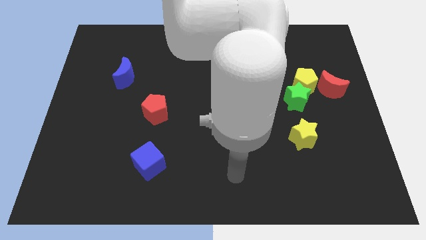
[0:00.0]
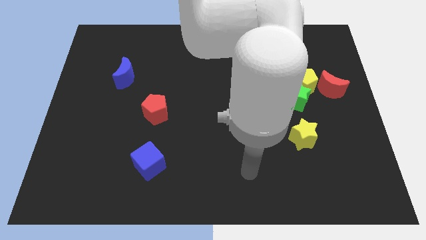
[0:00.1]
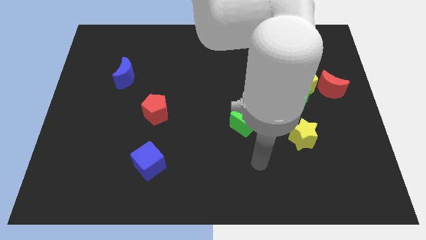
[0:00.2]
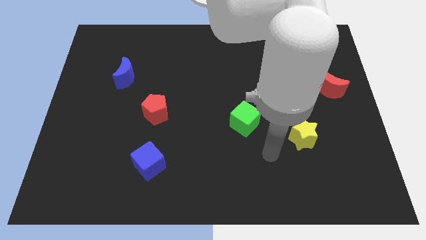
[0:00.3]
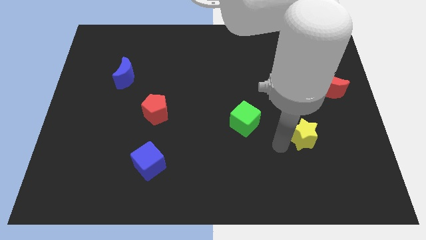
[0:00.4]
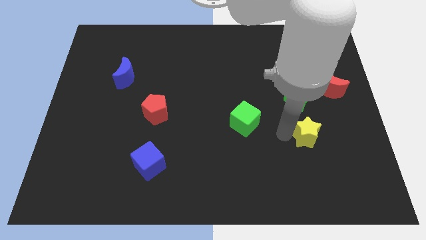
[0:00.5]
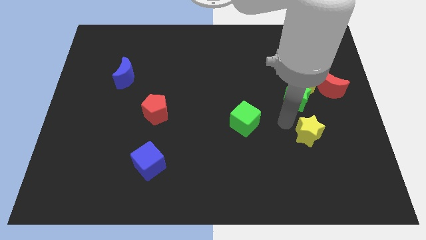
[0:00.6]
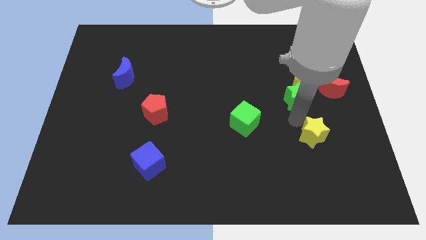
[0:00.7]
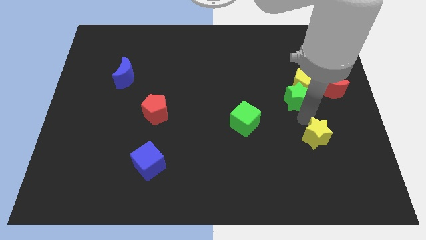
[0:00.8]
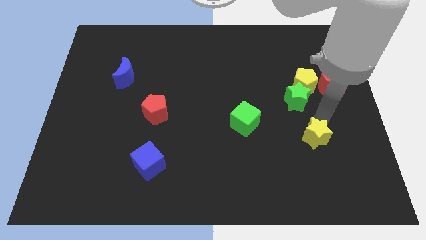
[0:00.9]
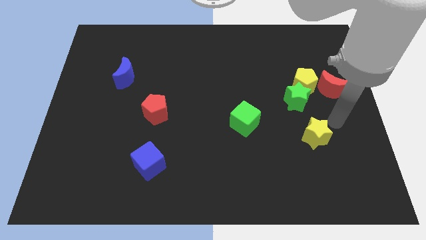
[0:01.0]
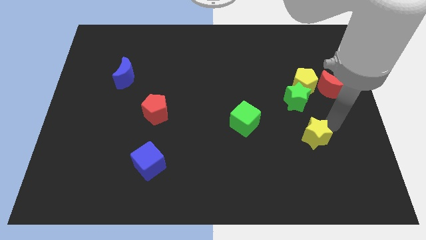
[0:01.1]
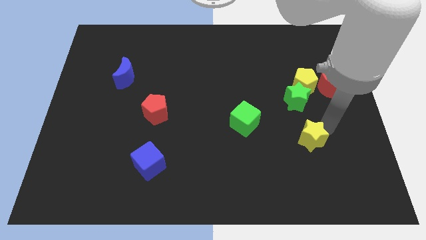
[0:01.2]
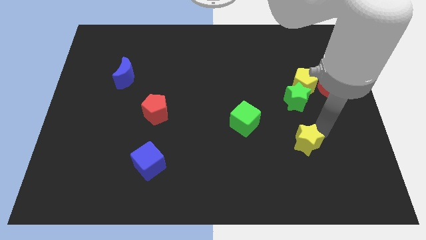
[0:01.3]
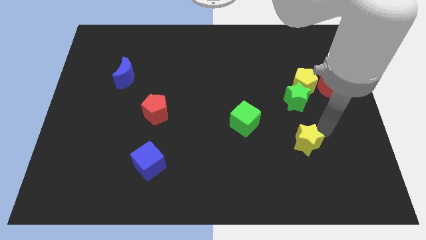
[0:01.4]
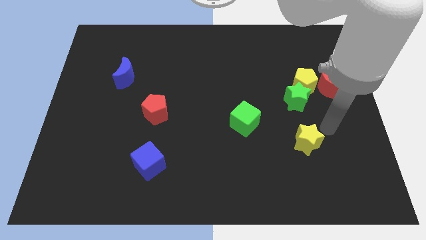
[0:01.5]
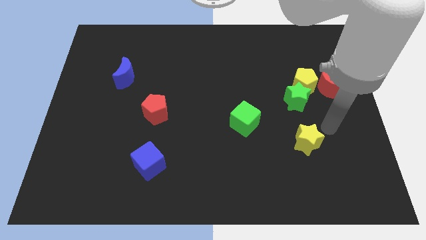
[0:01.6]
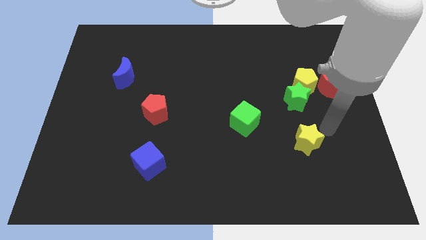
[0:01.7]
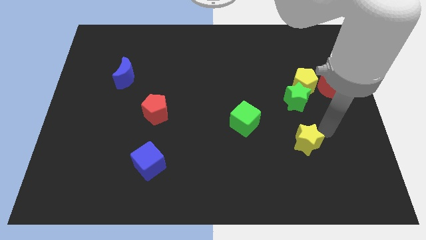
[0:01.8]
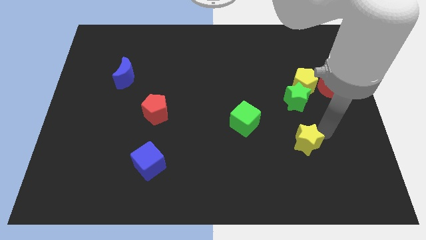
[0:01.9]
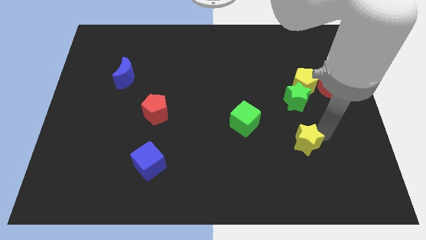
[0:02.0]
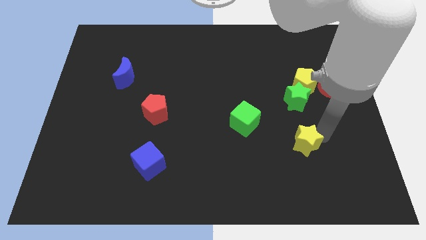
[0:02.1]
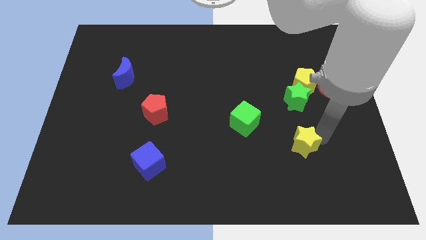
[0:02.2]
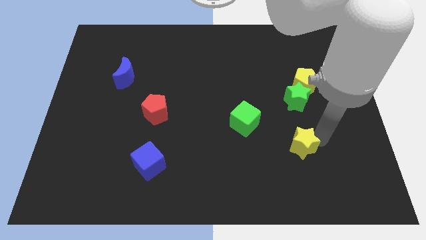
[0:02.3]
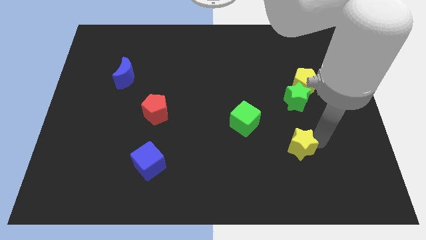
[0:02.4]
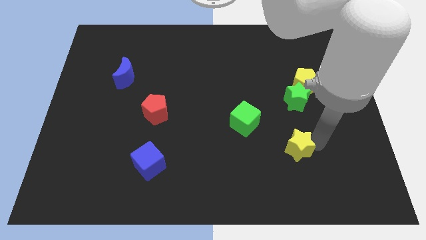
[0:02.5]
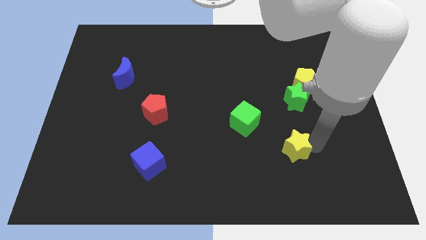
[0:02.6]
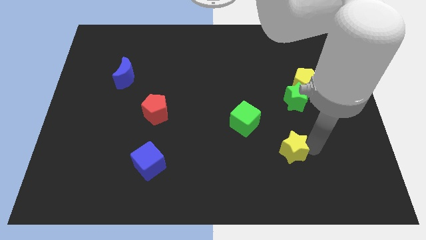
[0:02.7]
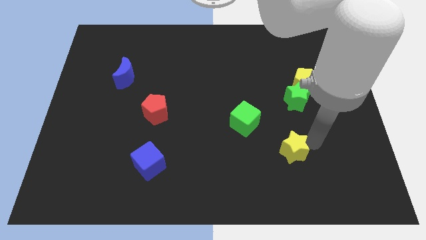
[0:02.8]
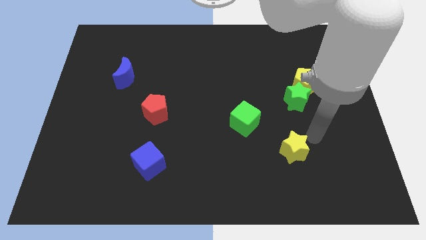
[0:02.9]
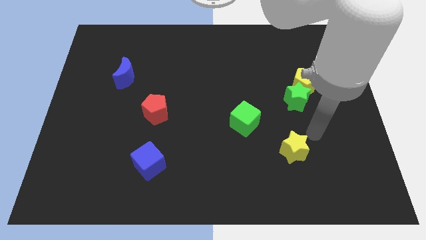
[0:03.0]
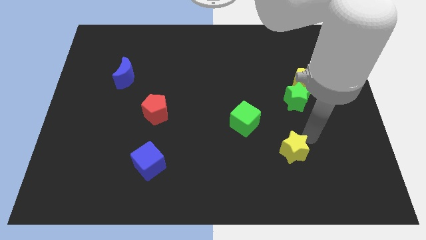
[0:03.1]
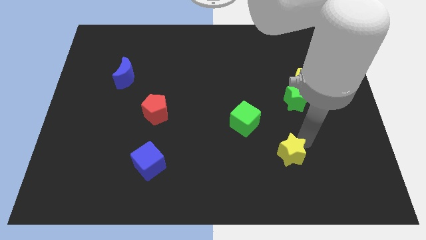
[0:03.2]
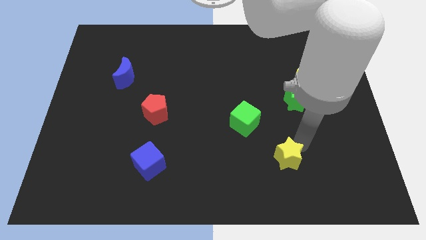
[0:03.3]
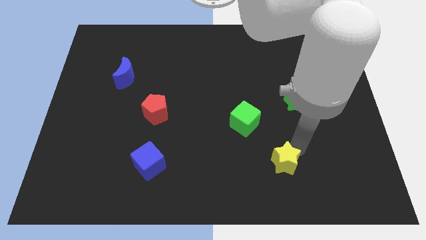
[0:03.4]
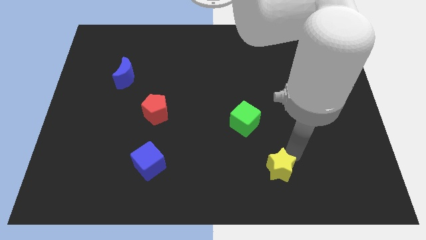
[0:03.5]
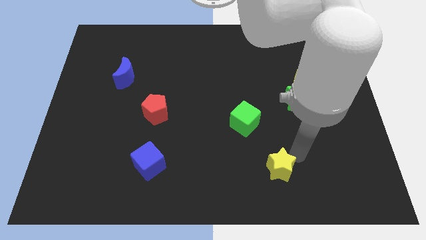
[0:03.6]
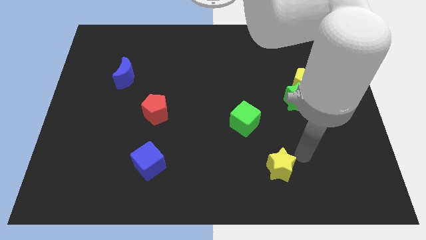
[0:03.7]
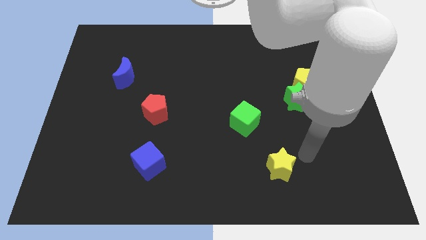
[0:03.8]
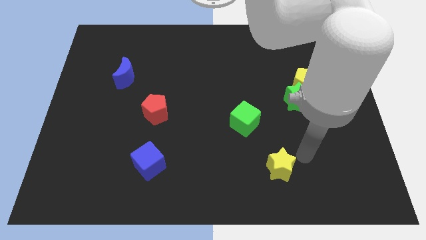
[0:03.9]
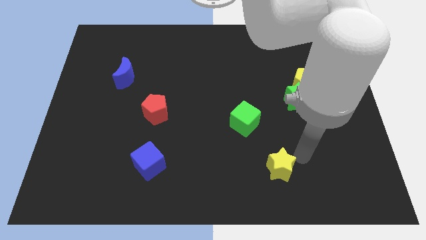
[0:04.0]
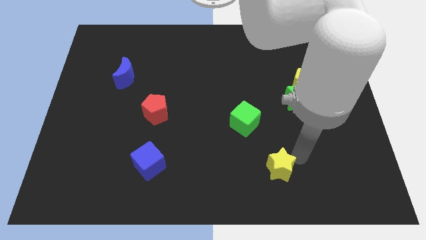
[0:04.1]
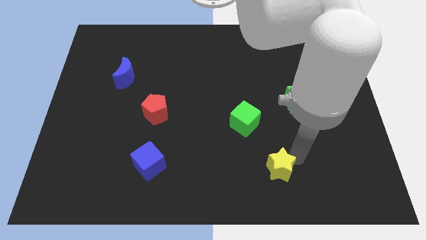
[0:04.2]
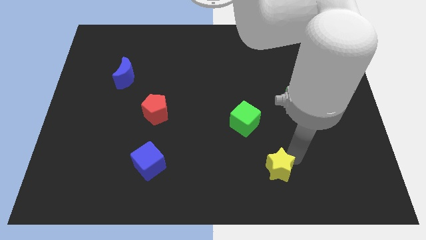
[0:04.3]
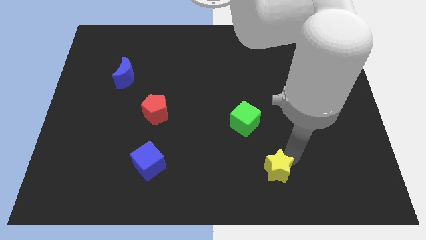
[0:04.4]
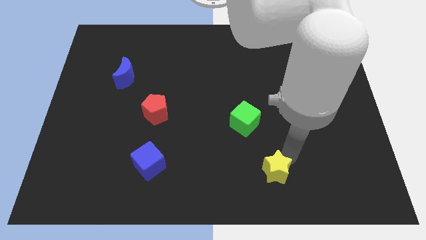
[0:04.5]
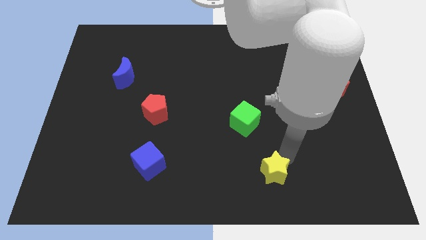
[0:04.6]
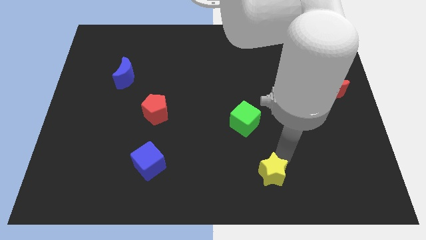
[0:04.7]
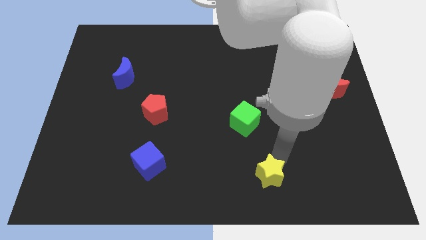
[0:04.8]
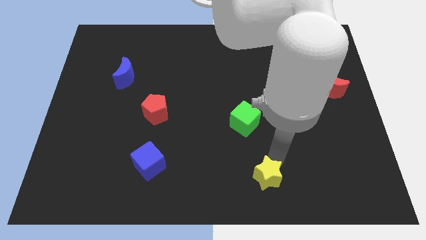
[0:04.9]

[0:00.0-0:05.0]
move the yellow star to the bottom

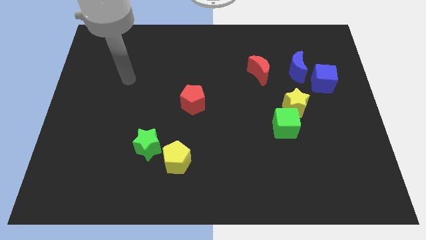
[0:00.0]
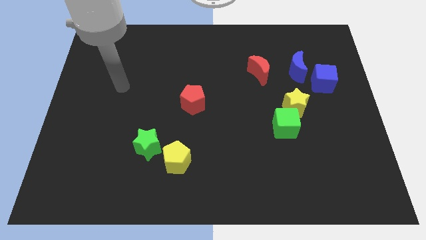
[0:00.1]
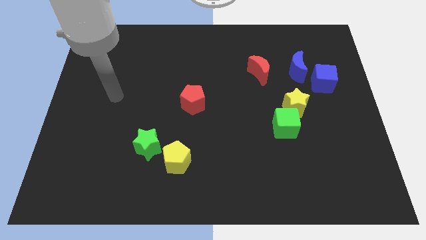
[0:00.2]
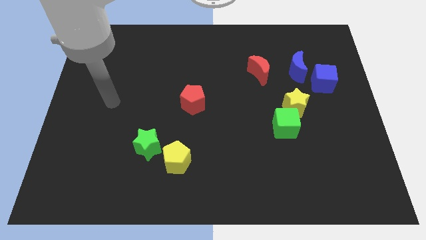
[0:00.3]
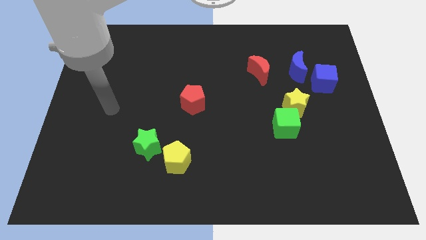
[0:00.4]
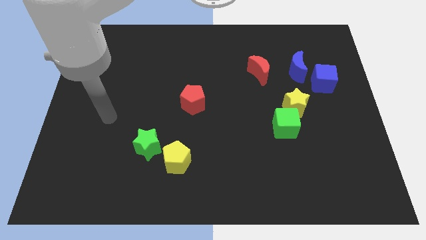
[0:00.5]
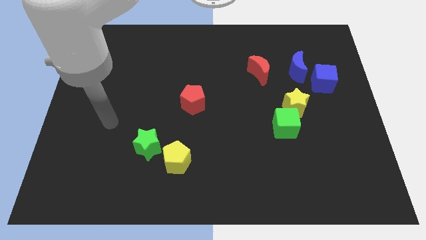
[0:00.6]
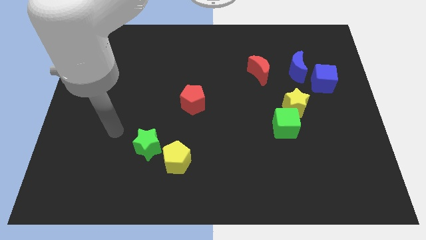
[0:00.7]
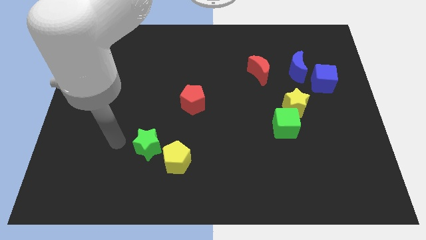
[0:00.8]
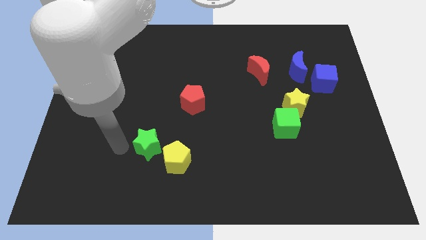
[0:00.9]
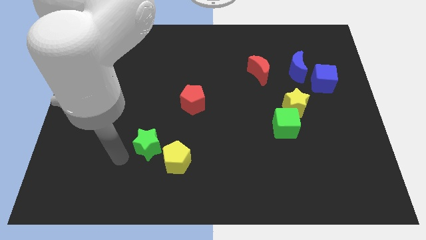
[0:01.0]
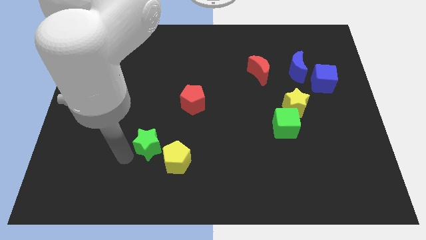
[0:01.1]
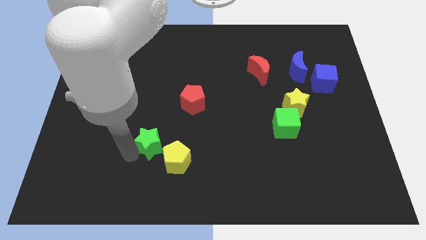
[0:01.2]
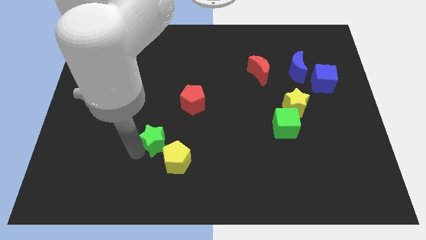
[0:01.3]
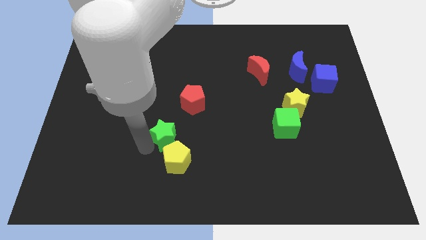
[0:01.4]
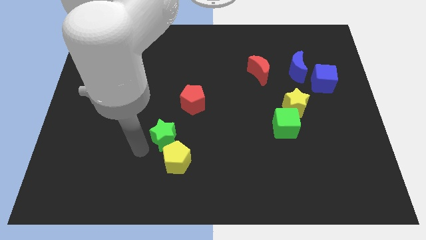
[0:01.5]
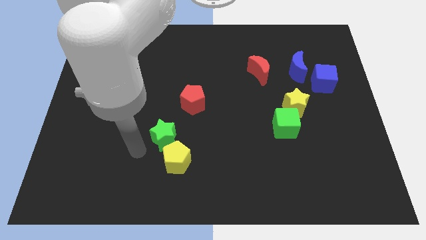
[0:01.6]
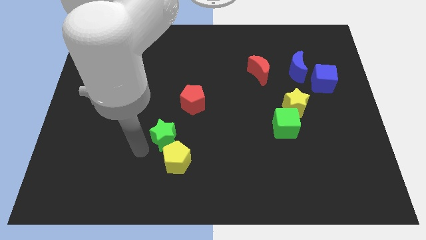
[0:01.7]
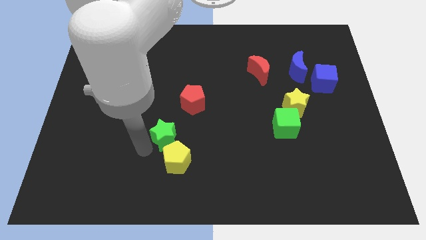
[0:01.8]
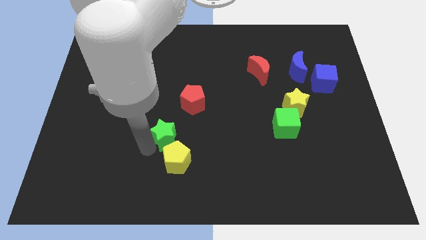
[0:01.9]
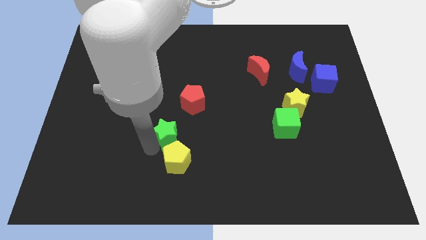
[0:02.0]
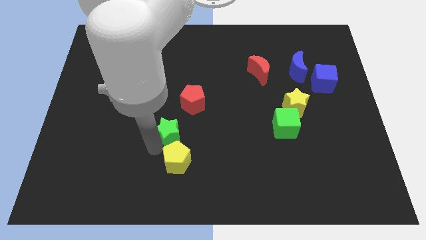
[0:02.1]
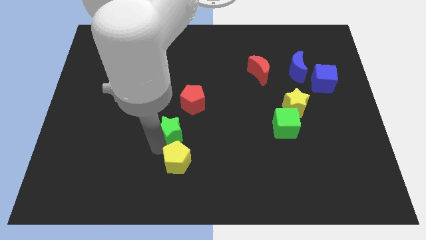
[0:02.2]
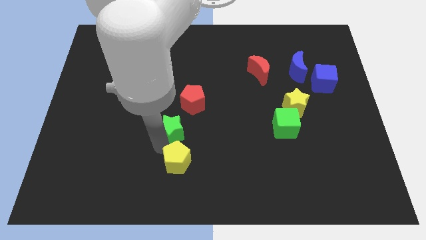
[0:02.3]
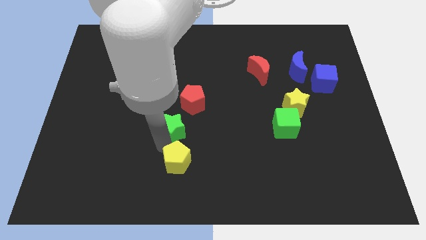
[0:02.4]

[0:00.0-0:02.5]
move the green star to the middle
